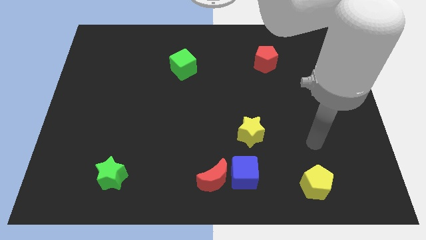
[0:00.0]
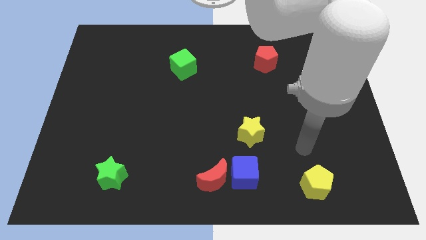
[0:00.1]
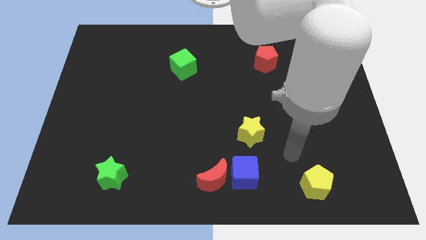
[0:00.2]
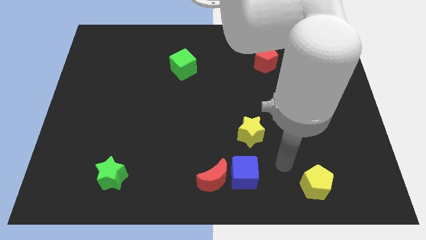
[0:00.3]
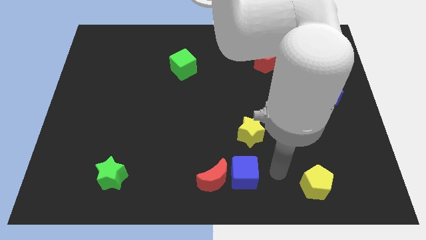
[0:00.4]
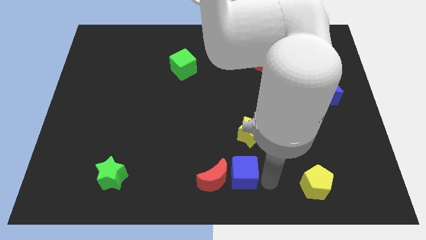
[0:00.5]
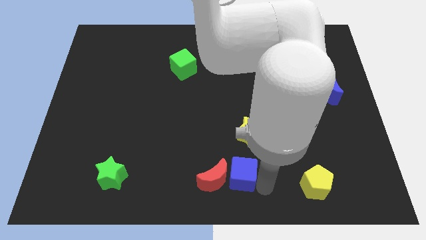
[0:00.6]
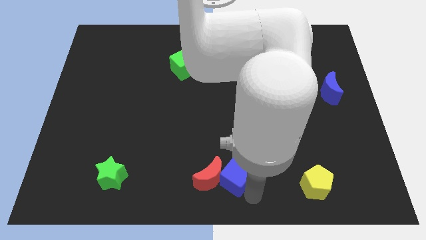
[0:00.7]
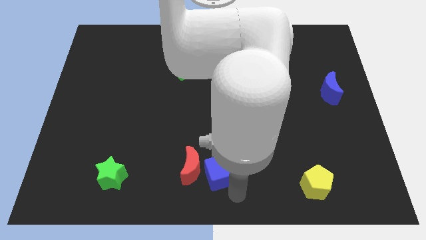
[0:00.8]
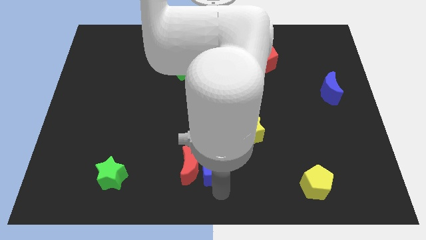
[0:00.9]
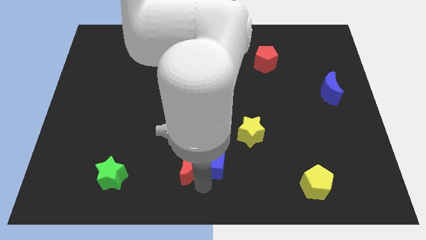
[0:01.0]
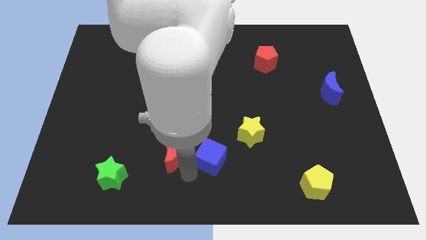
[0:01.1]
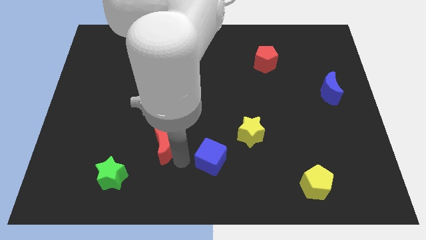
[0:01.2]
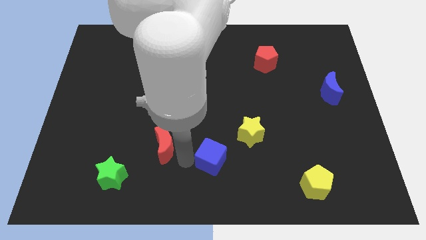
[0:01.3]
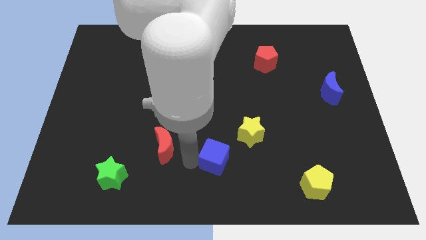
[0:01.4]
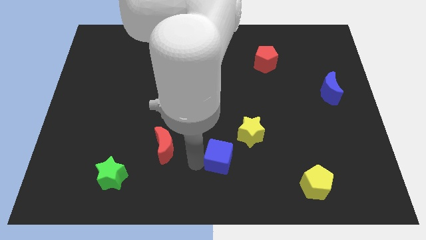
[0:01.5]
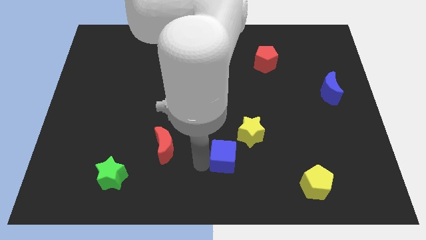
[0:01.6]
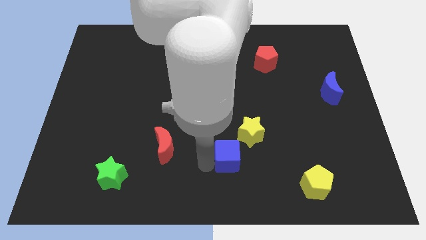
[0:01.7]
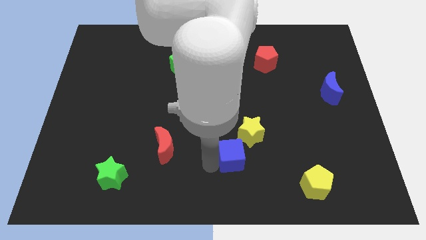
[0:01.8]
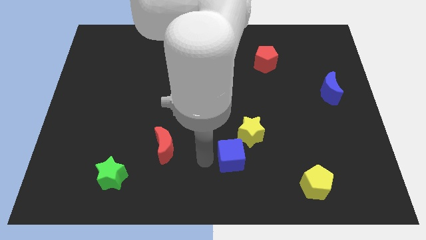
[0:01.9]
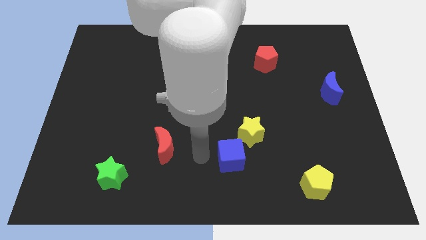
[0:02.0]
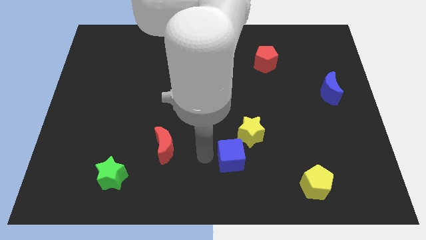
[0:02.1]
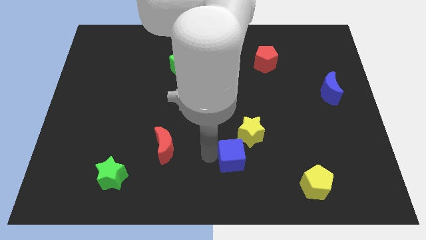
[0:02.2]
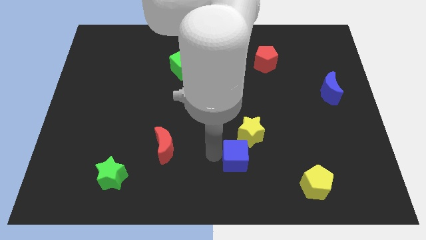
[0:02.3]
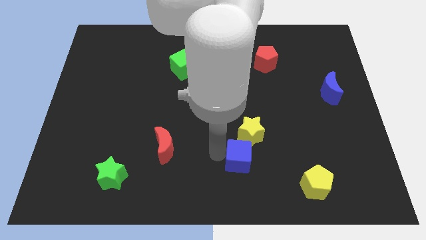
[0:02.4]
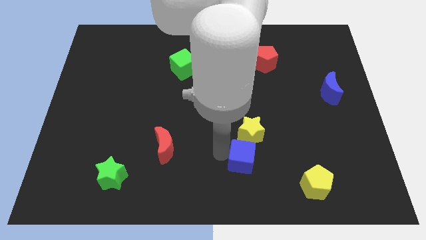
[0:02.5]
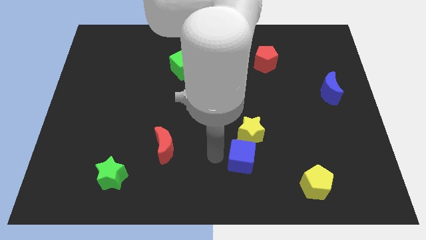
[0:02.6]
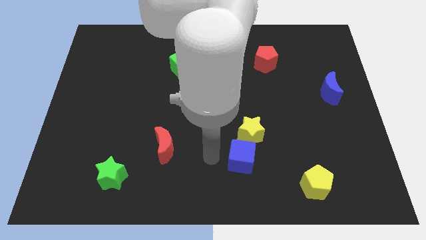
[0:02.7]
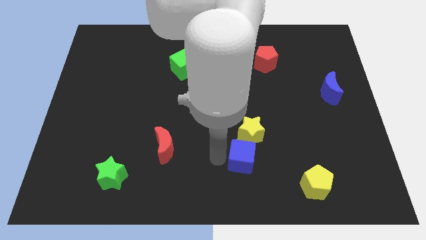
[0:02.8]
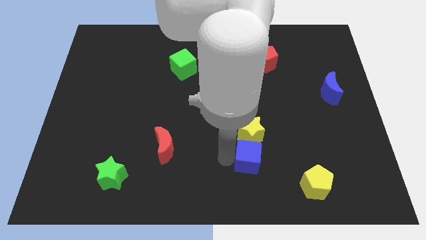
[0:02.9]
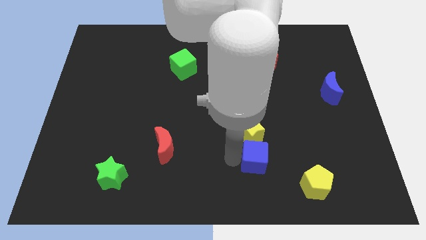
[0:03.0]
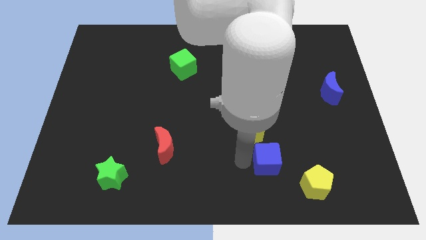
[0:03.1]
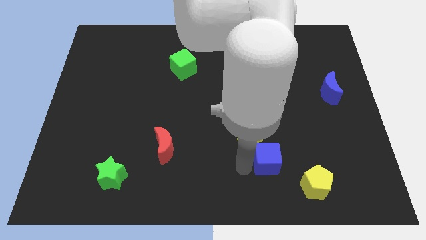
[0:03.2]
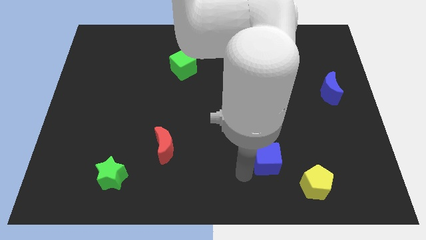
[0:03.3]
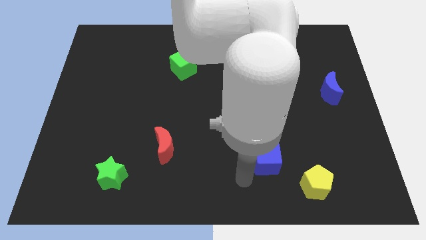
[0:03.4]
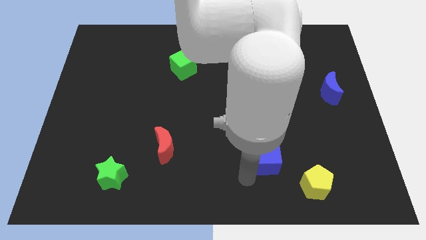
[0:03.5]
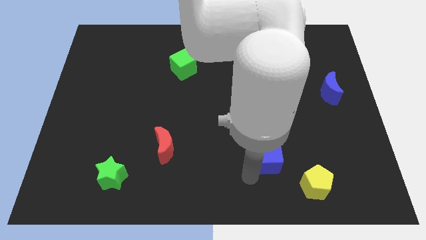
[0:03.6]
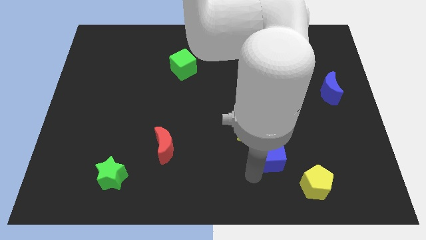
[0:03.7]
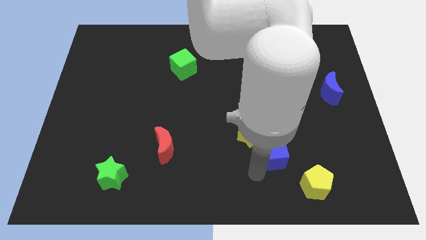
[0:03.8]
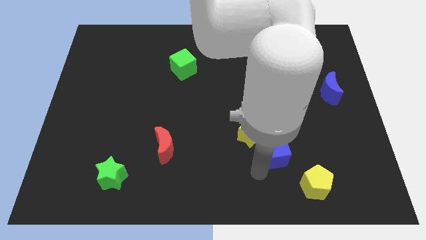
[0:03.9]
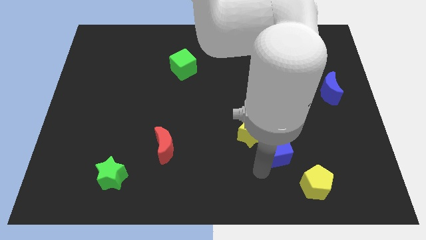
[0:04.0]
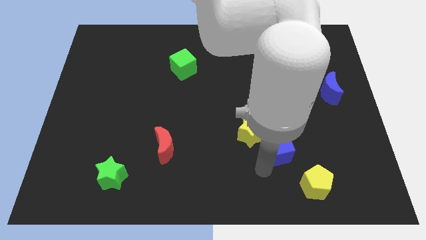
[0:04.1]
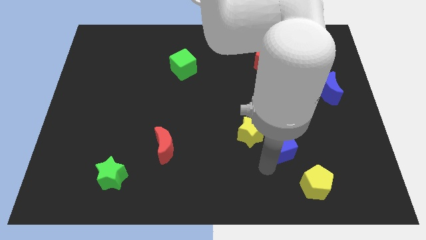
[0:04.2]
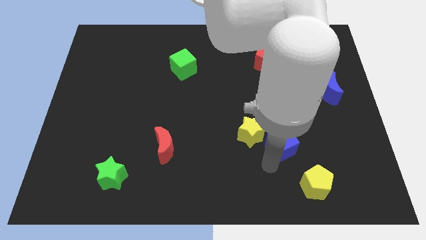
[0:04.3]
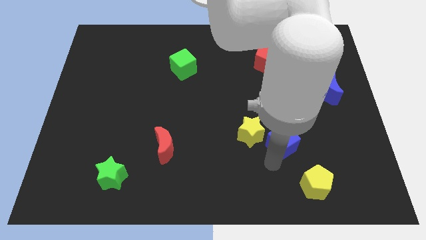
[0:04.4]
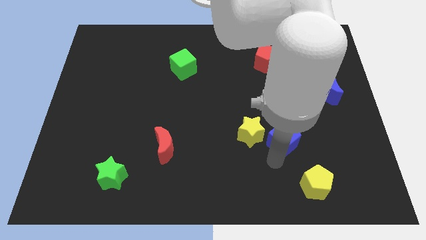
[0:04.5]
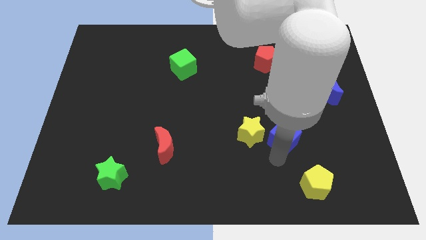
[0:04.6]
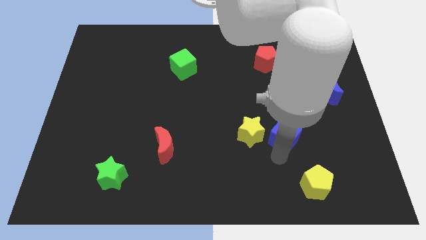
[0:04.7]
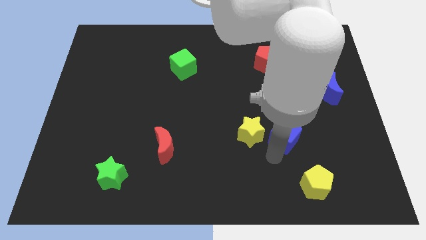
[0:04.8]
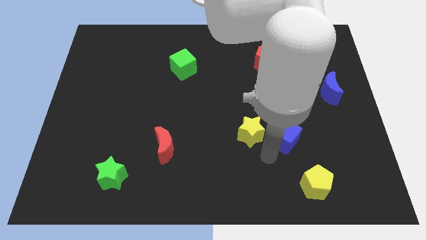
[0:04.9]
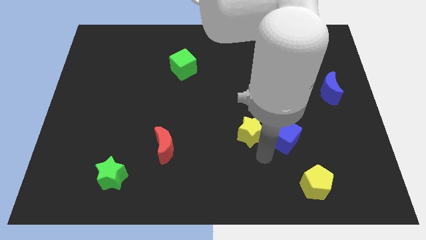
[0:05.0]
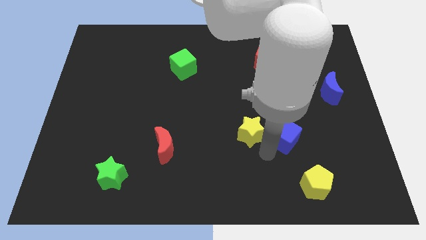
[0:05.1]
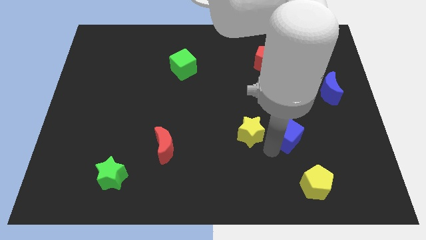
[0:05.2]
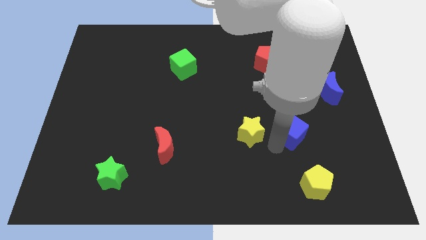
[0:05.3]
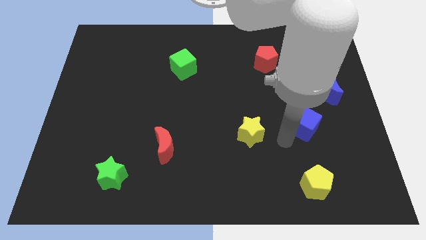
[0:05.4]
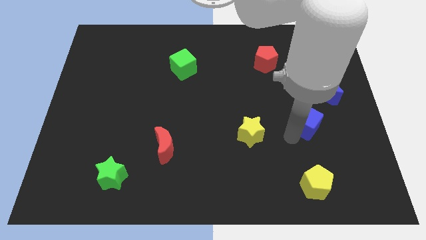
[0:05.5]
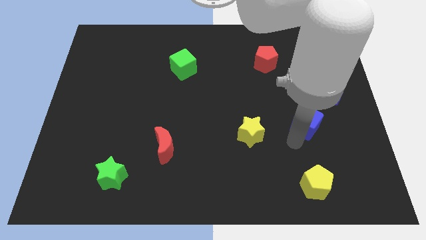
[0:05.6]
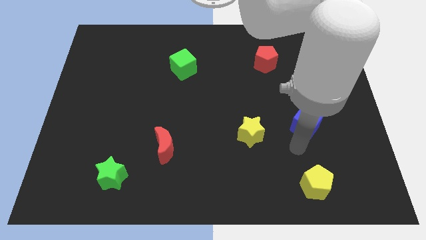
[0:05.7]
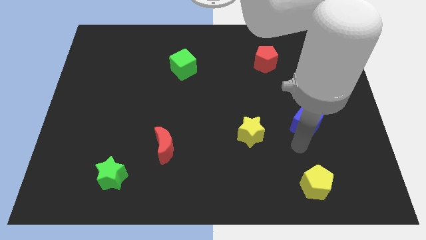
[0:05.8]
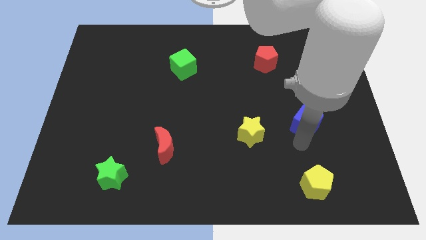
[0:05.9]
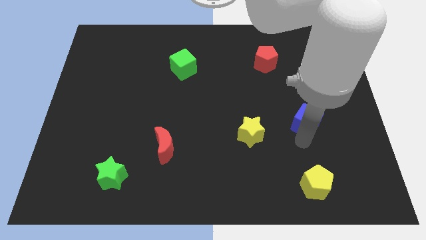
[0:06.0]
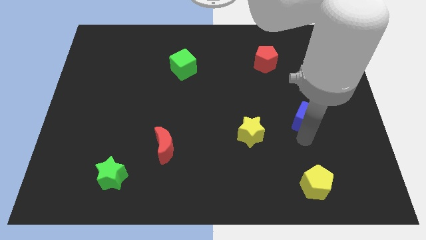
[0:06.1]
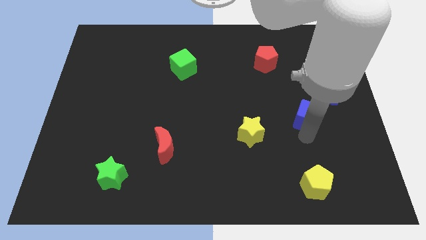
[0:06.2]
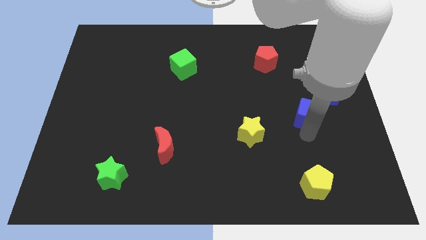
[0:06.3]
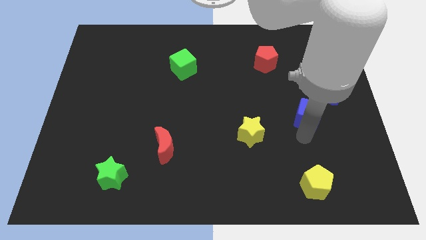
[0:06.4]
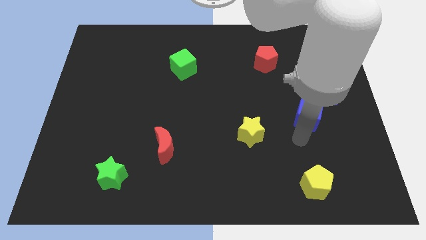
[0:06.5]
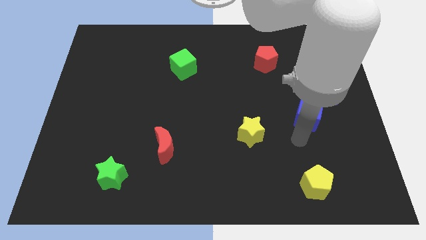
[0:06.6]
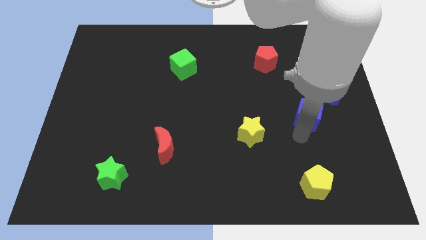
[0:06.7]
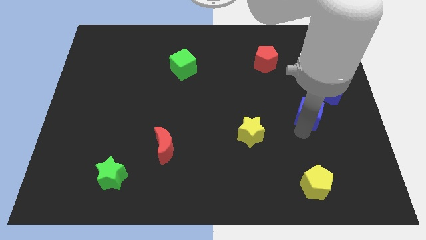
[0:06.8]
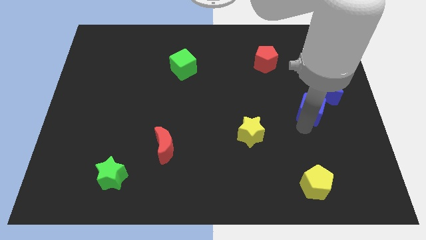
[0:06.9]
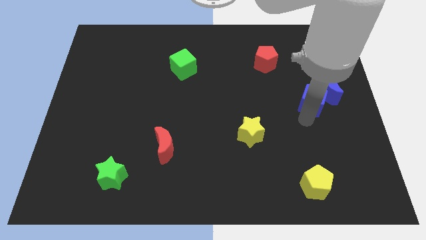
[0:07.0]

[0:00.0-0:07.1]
put the blue cube towards the blue moon
